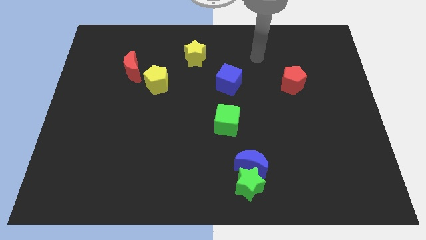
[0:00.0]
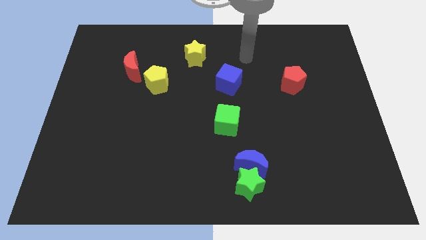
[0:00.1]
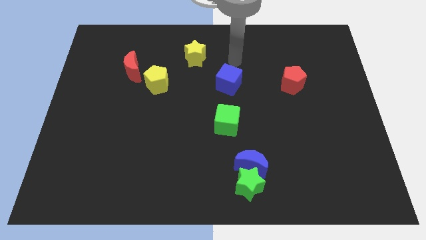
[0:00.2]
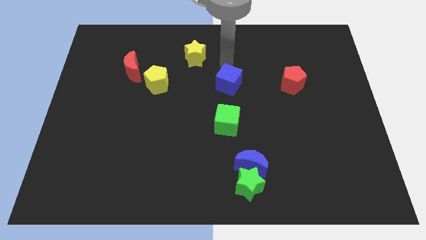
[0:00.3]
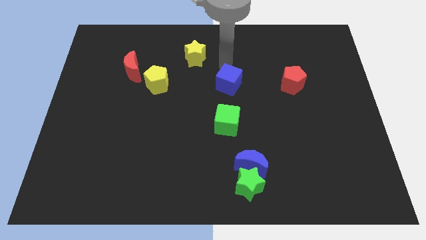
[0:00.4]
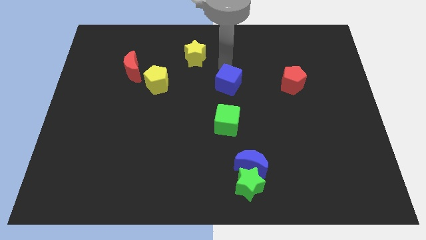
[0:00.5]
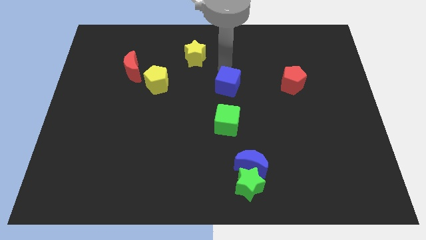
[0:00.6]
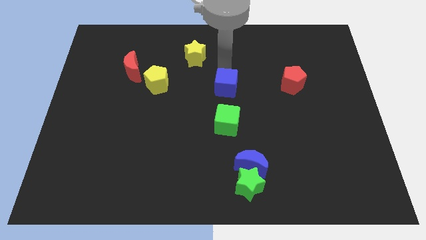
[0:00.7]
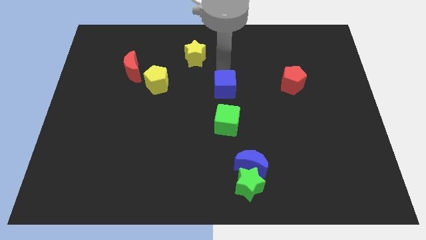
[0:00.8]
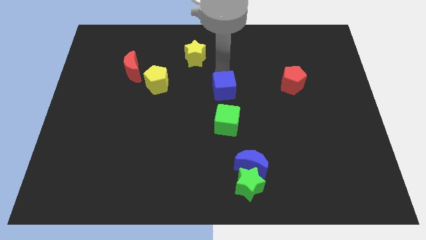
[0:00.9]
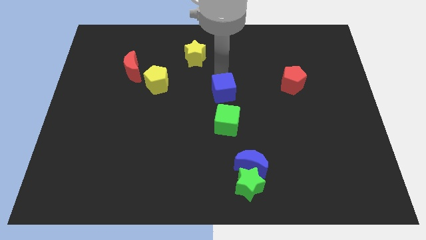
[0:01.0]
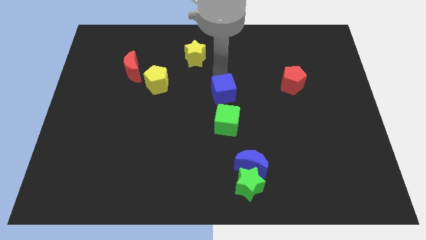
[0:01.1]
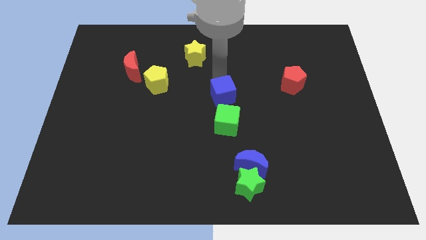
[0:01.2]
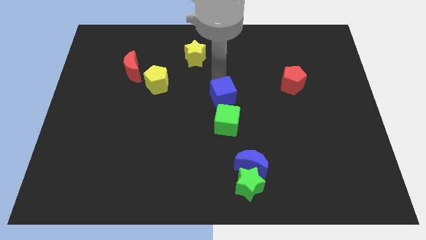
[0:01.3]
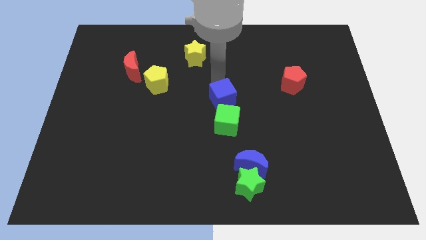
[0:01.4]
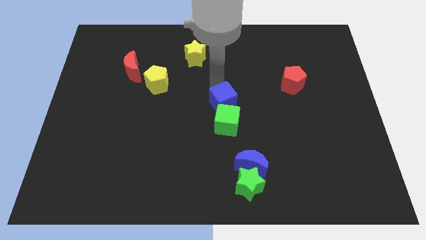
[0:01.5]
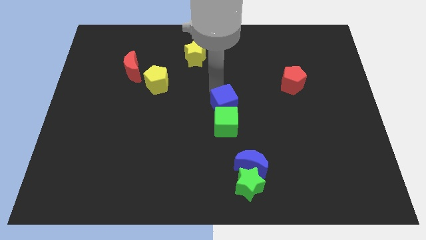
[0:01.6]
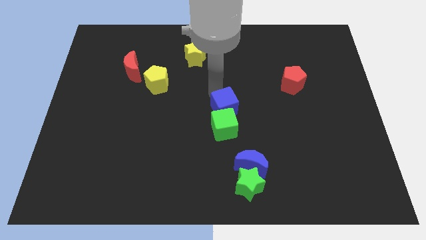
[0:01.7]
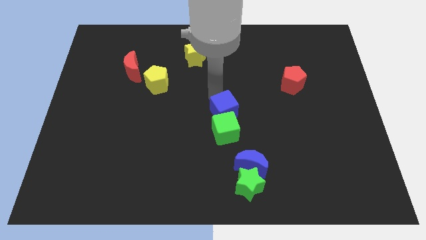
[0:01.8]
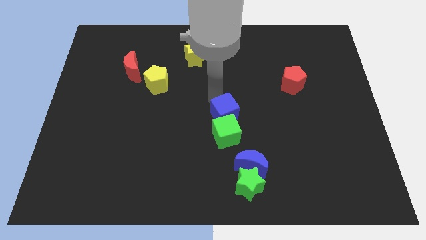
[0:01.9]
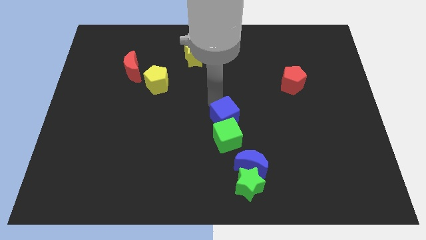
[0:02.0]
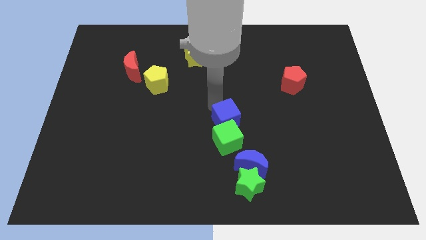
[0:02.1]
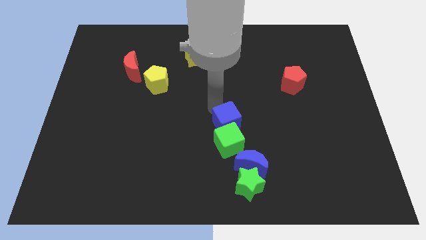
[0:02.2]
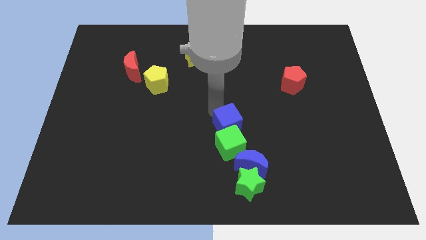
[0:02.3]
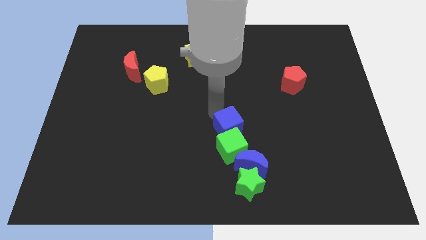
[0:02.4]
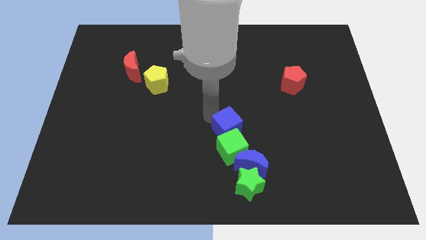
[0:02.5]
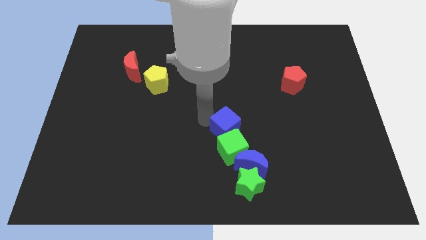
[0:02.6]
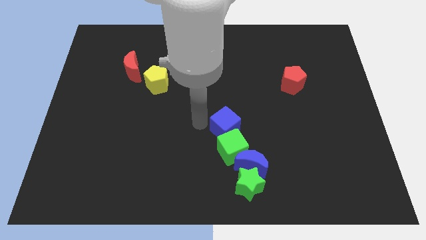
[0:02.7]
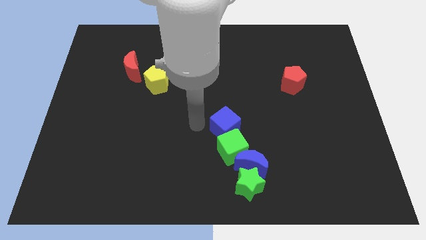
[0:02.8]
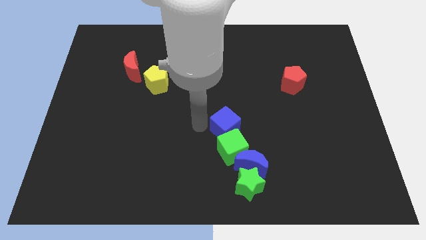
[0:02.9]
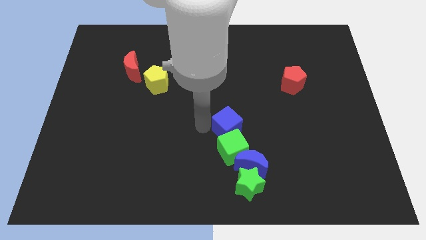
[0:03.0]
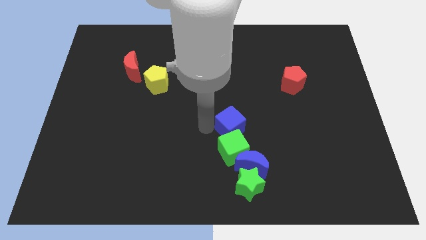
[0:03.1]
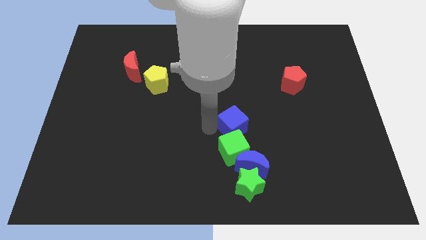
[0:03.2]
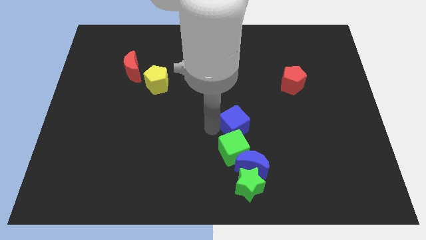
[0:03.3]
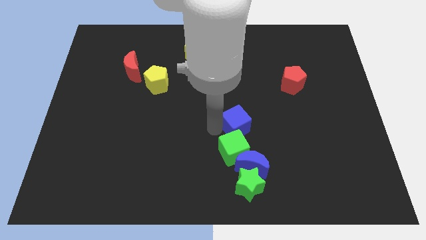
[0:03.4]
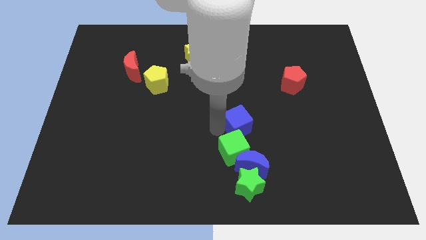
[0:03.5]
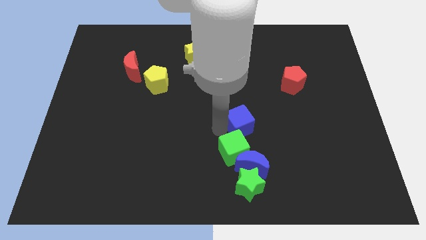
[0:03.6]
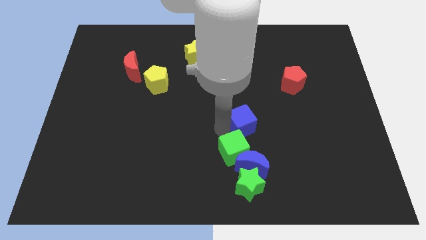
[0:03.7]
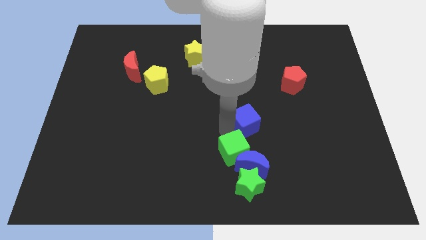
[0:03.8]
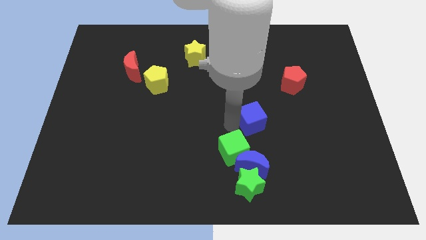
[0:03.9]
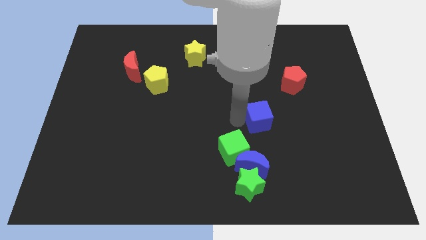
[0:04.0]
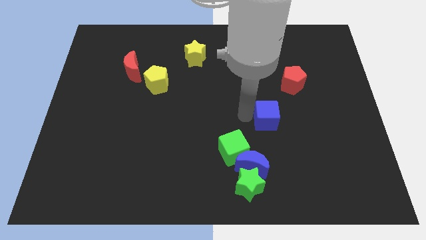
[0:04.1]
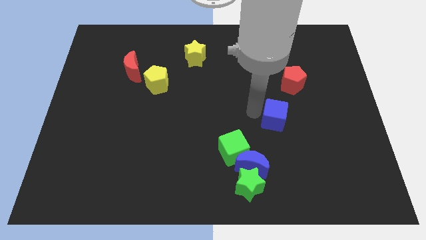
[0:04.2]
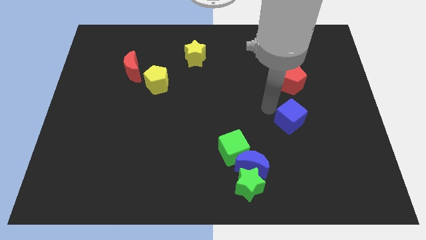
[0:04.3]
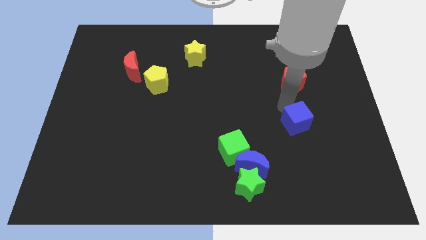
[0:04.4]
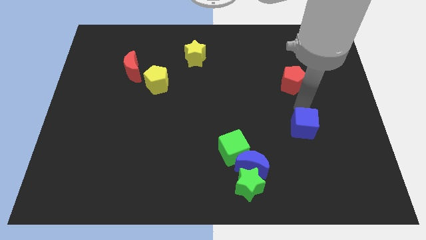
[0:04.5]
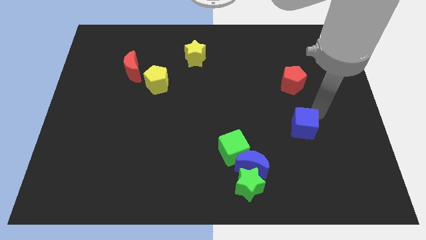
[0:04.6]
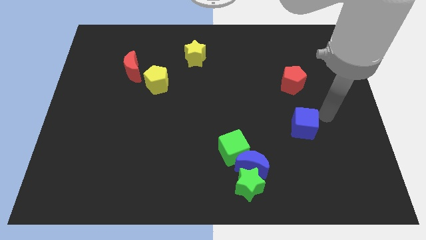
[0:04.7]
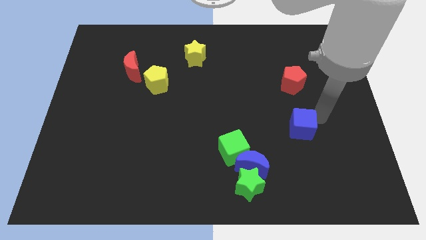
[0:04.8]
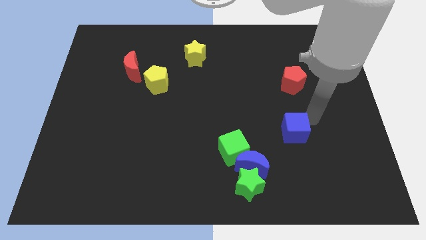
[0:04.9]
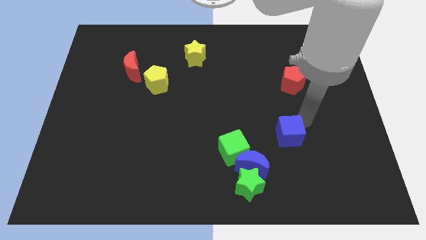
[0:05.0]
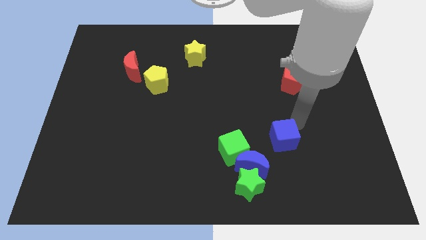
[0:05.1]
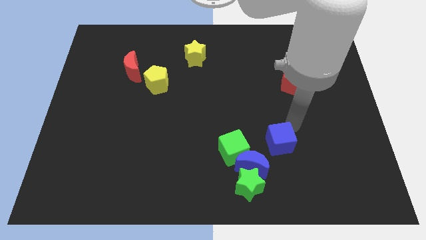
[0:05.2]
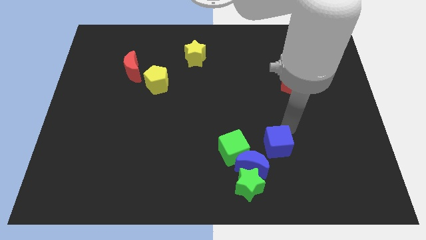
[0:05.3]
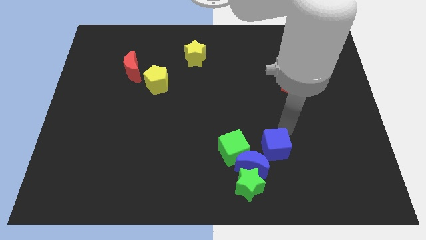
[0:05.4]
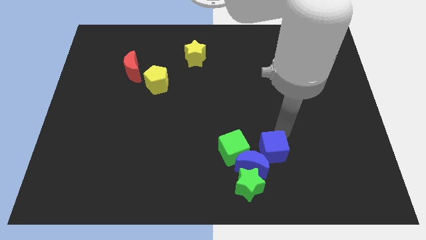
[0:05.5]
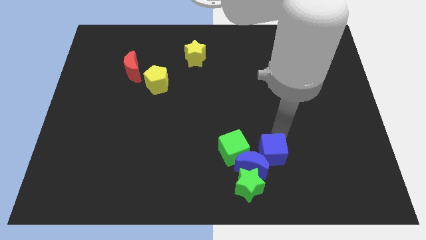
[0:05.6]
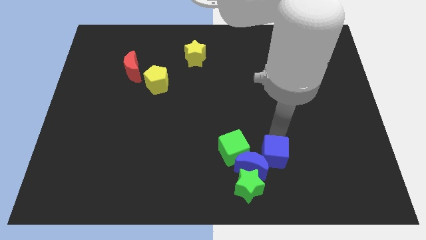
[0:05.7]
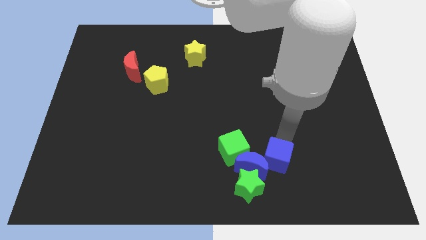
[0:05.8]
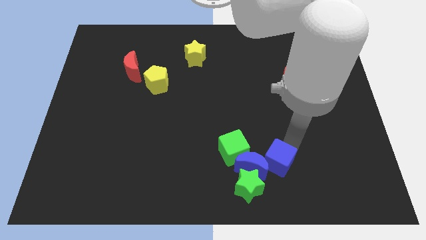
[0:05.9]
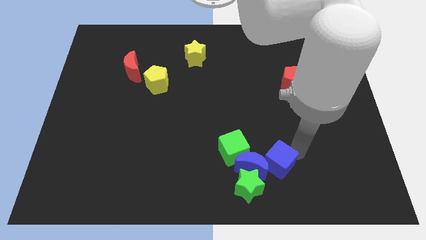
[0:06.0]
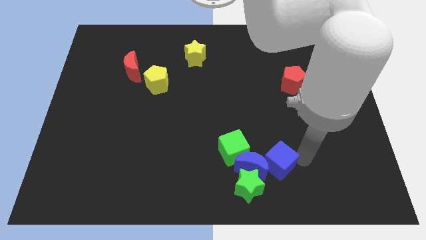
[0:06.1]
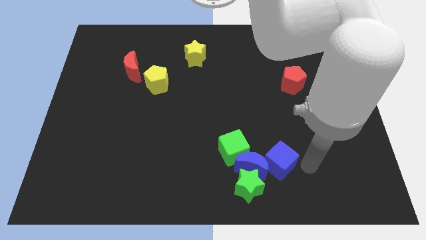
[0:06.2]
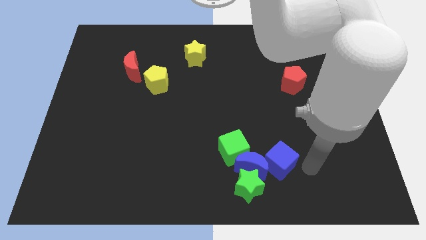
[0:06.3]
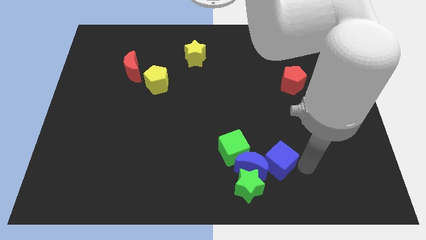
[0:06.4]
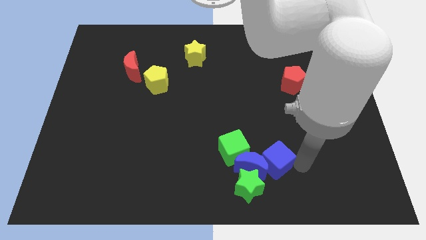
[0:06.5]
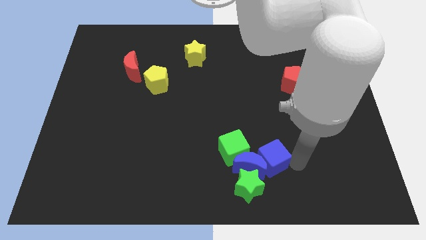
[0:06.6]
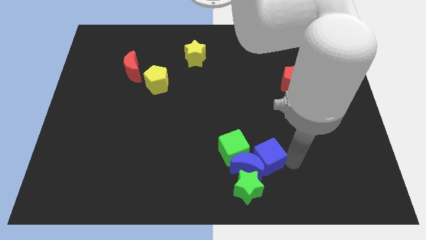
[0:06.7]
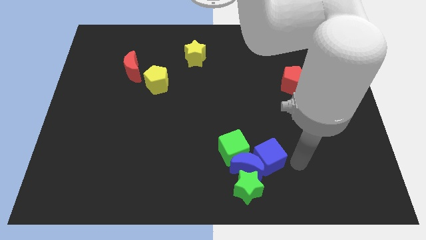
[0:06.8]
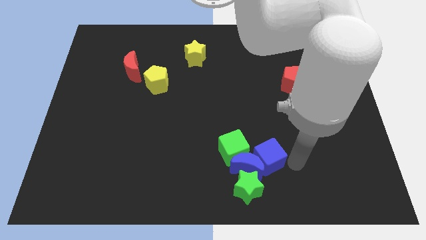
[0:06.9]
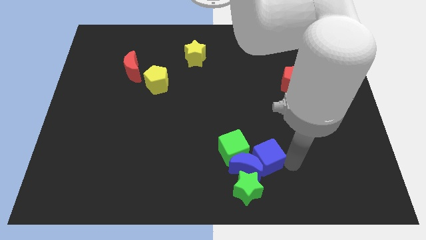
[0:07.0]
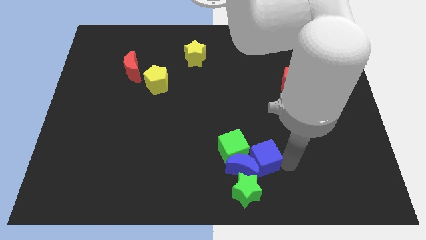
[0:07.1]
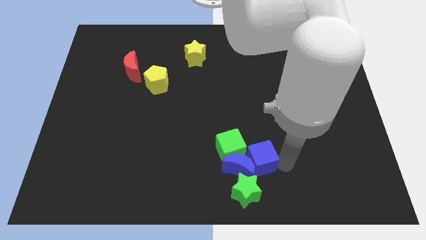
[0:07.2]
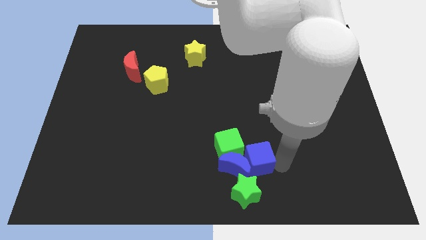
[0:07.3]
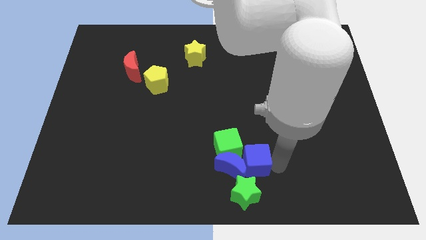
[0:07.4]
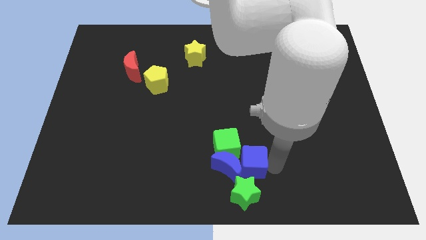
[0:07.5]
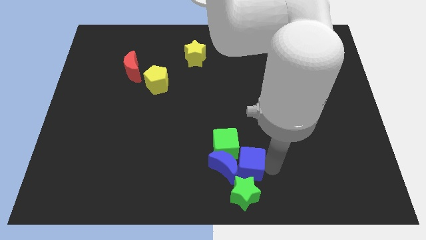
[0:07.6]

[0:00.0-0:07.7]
put the blue cube next to the green star
